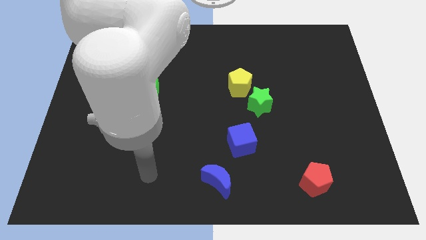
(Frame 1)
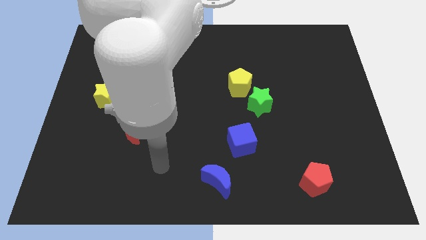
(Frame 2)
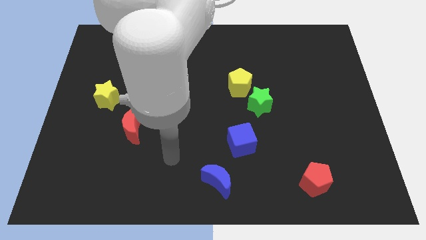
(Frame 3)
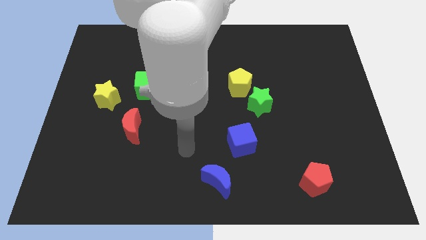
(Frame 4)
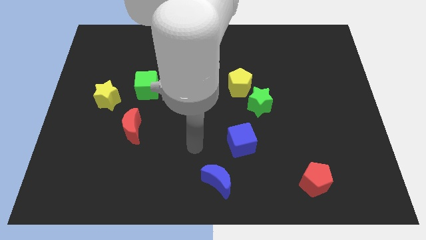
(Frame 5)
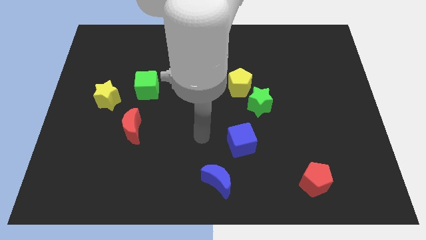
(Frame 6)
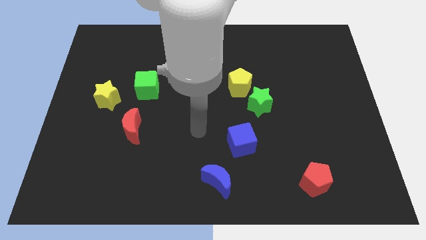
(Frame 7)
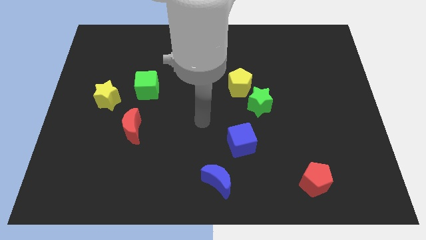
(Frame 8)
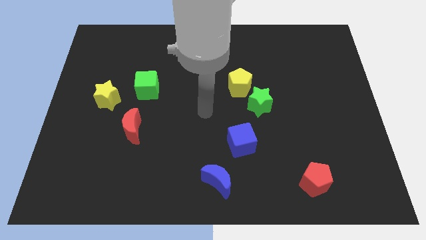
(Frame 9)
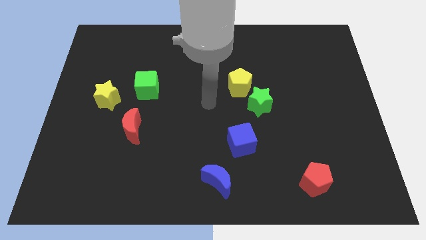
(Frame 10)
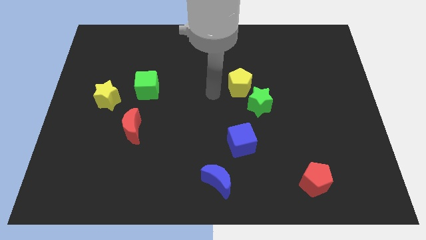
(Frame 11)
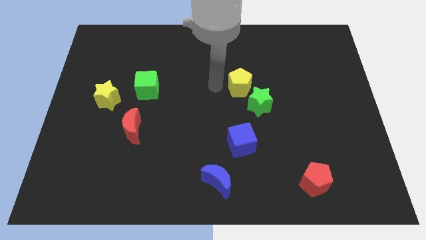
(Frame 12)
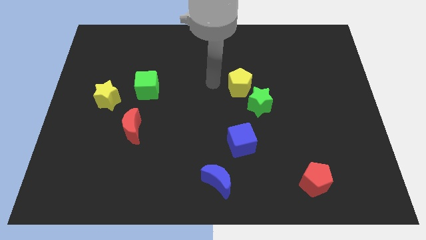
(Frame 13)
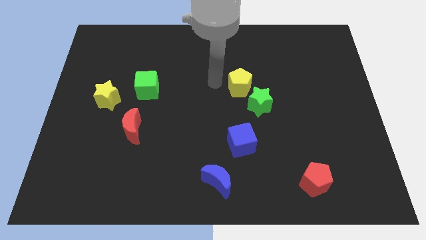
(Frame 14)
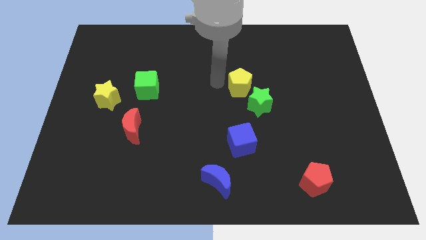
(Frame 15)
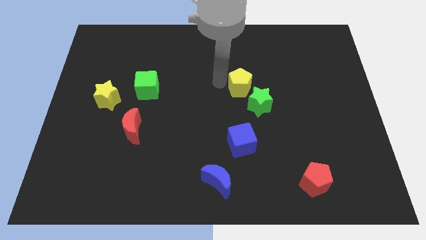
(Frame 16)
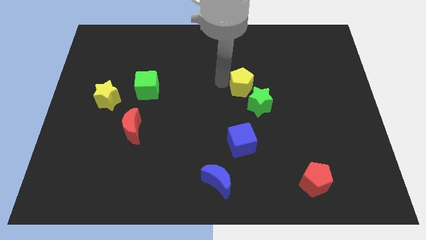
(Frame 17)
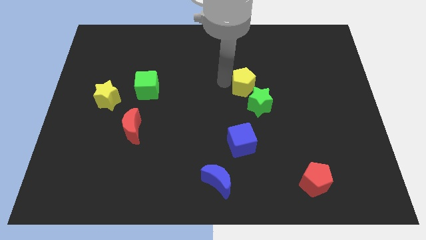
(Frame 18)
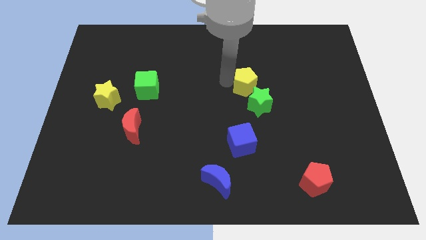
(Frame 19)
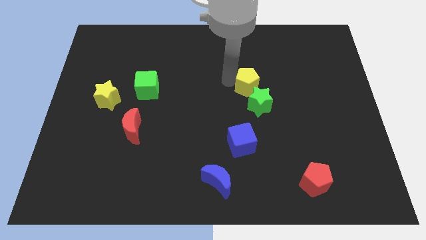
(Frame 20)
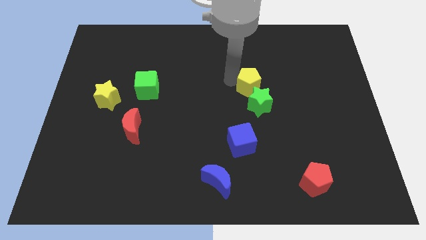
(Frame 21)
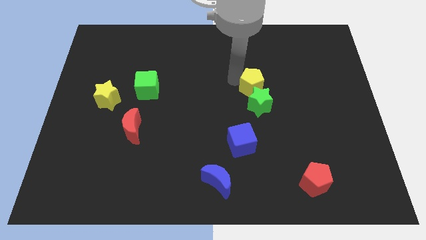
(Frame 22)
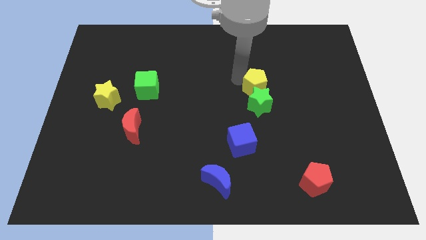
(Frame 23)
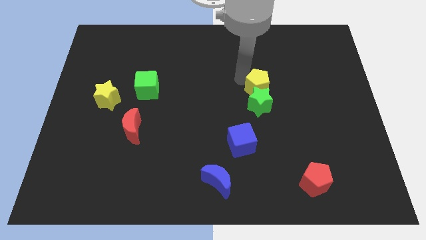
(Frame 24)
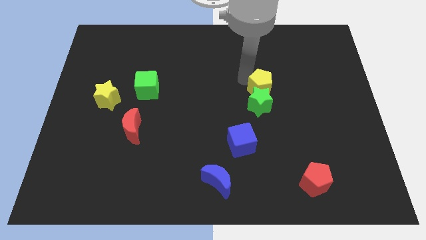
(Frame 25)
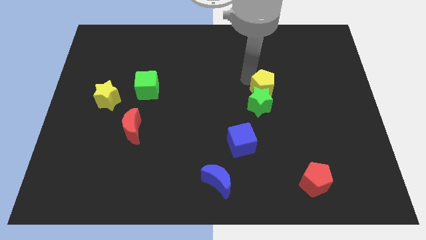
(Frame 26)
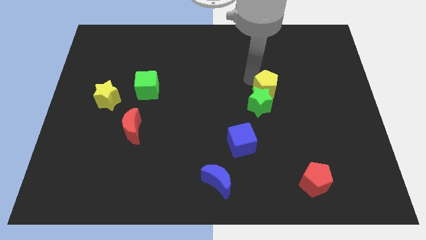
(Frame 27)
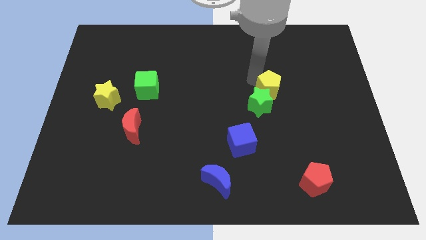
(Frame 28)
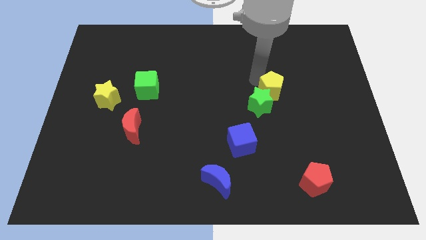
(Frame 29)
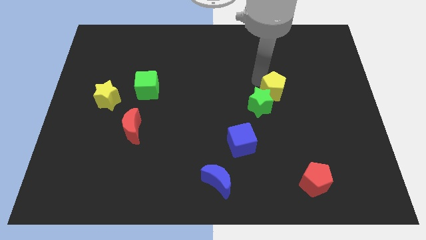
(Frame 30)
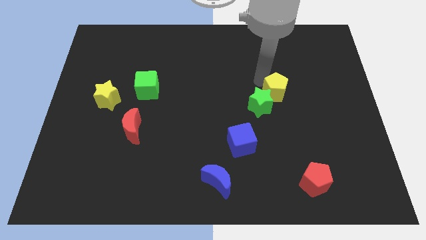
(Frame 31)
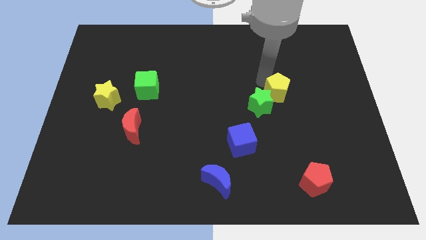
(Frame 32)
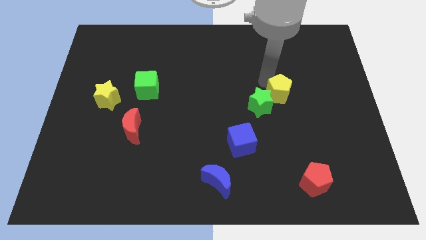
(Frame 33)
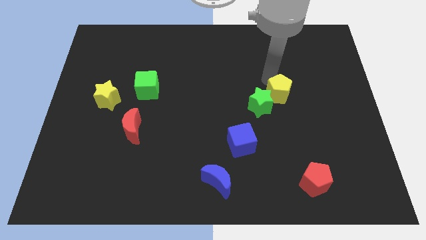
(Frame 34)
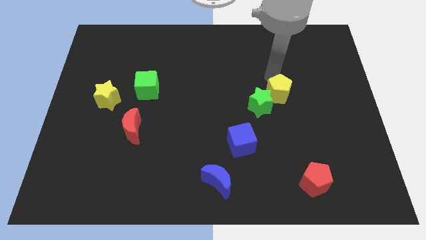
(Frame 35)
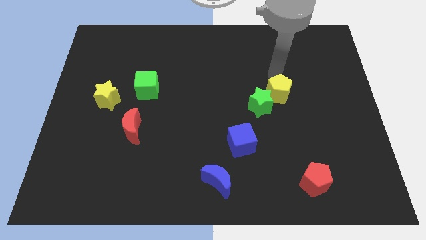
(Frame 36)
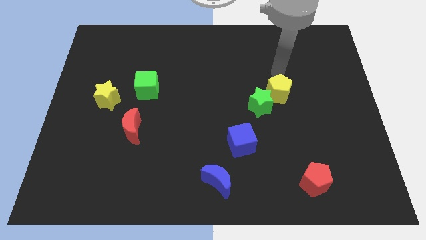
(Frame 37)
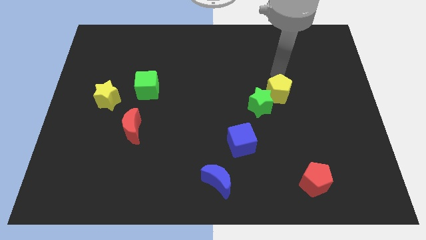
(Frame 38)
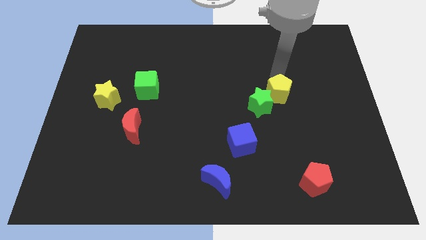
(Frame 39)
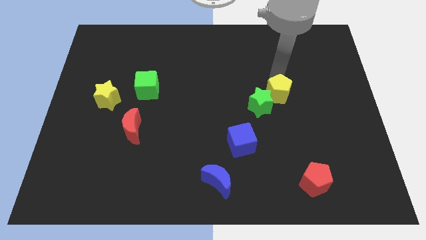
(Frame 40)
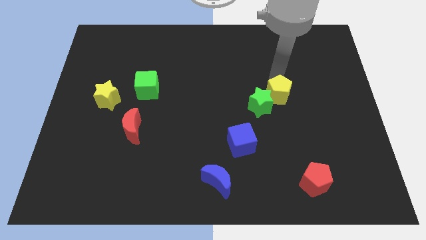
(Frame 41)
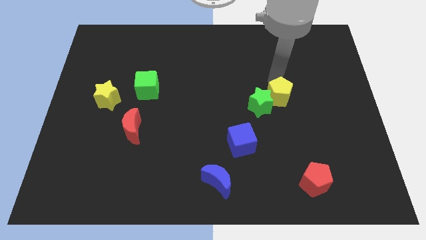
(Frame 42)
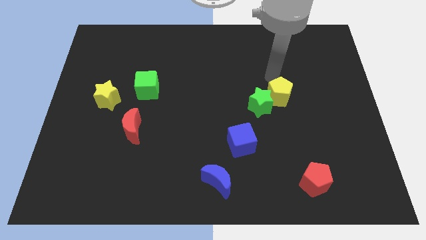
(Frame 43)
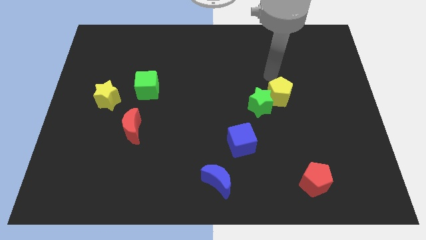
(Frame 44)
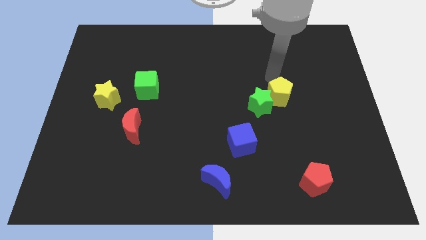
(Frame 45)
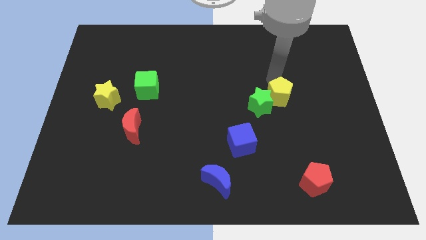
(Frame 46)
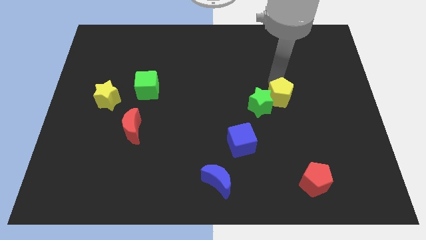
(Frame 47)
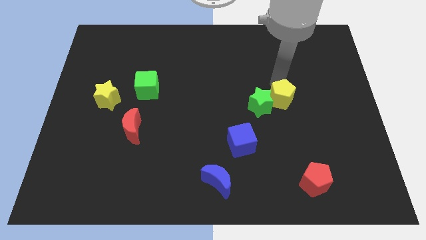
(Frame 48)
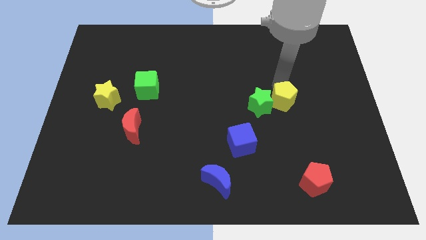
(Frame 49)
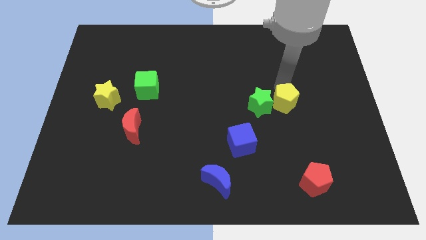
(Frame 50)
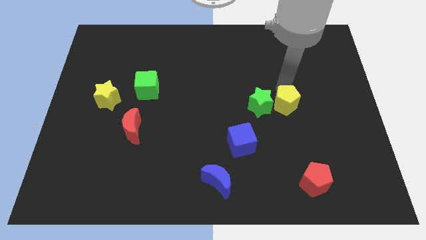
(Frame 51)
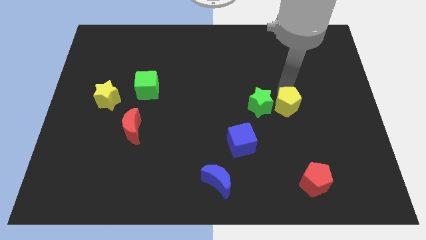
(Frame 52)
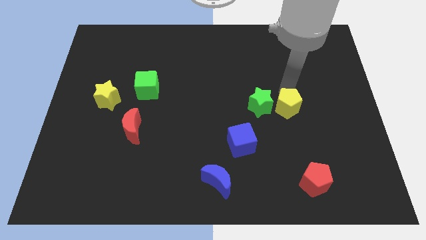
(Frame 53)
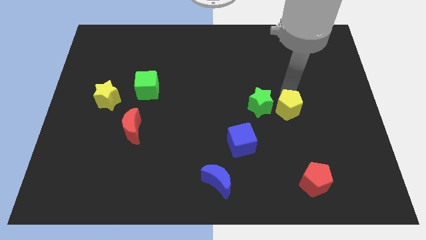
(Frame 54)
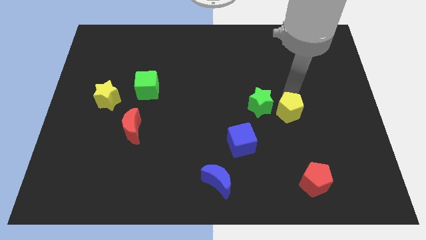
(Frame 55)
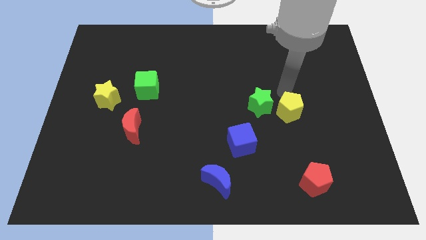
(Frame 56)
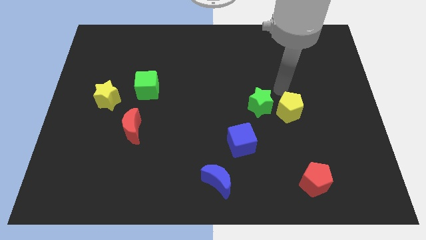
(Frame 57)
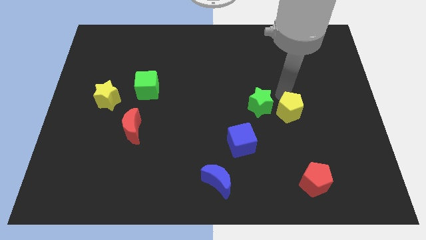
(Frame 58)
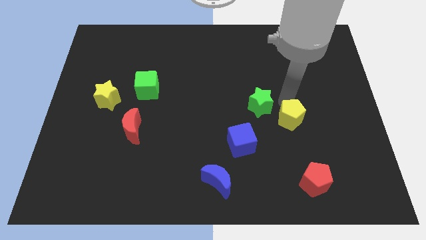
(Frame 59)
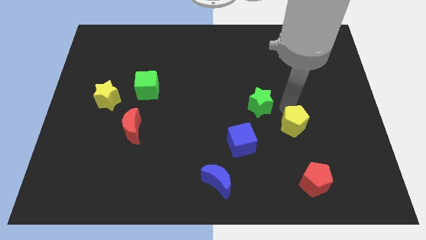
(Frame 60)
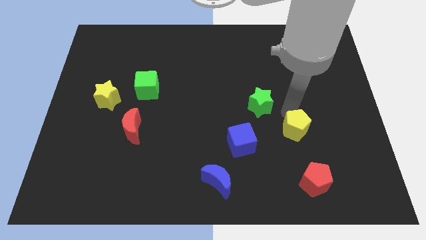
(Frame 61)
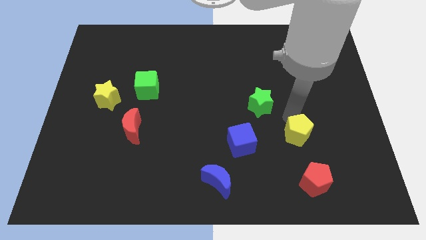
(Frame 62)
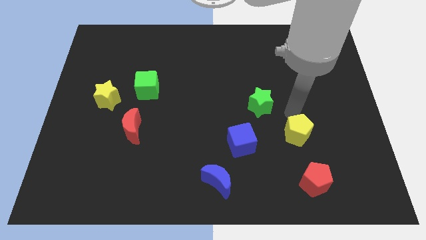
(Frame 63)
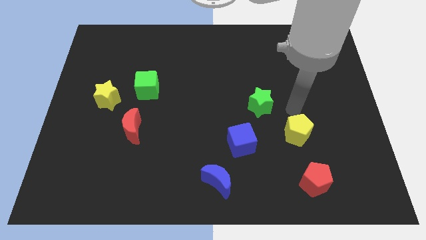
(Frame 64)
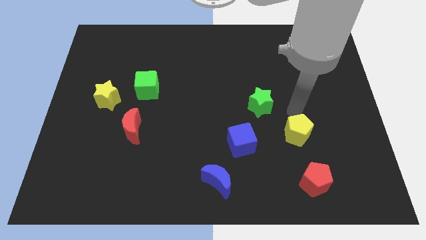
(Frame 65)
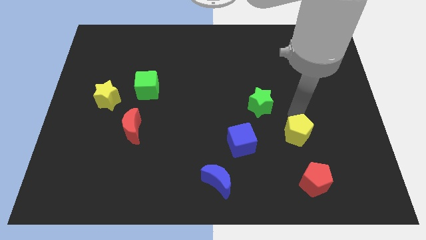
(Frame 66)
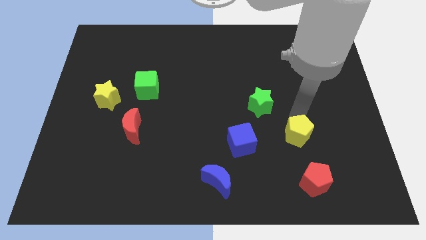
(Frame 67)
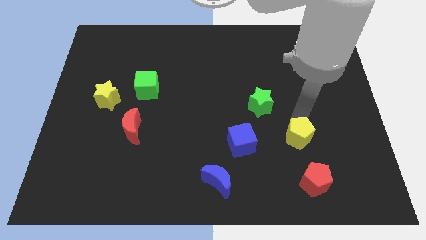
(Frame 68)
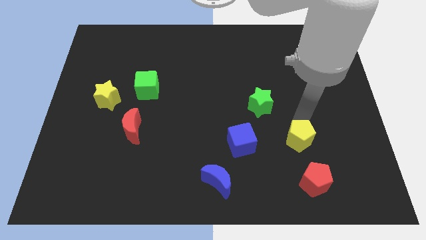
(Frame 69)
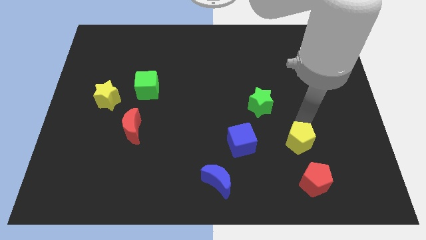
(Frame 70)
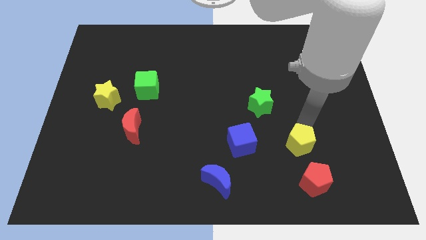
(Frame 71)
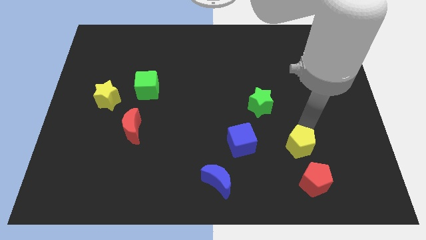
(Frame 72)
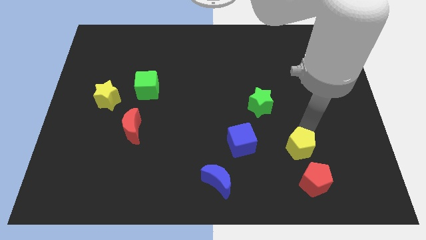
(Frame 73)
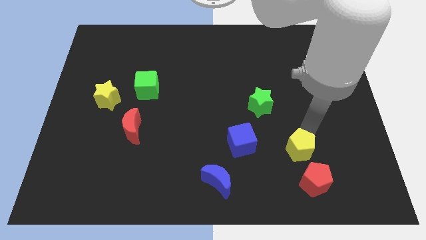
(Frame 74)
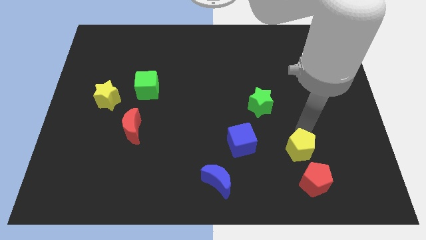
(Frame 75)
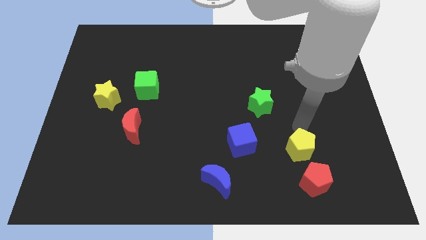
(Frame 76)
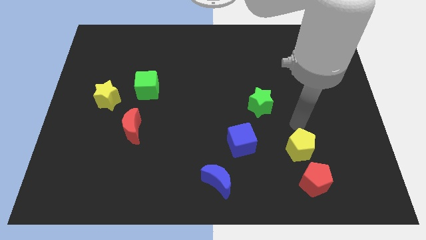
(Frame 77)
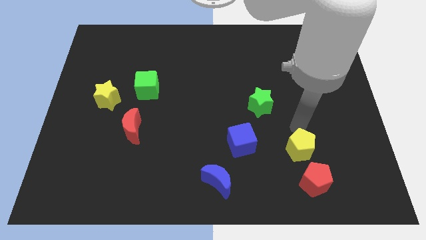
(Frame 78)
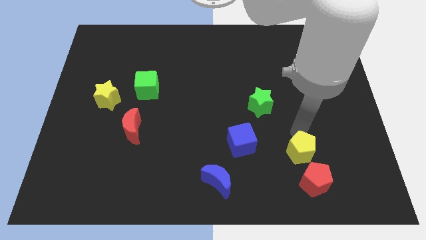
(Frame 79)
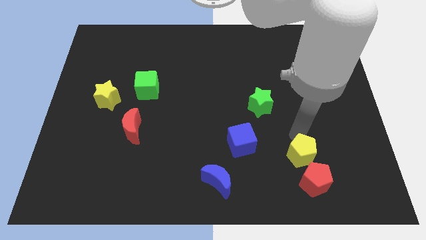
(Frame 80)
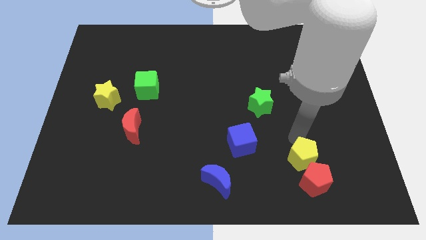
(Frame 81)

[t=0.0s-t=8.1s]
put the yellow pentagon next to the red pentagon

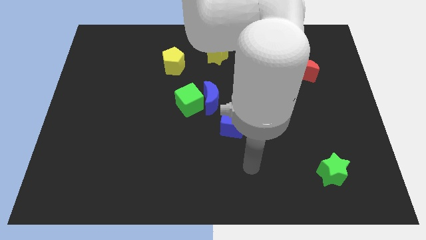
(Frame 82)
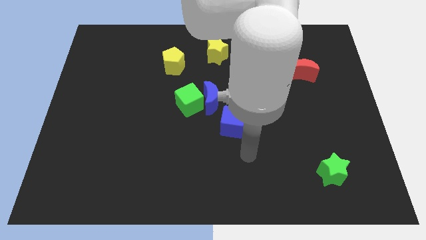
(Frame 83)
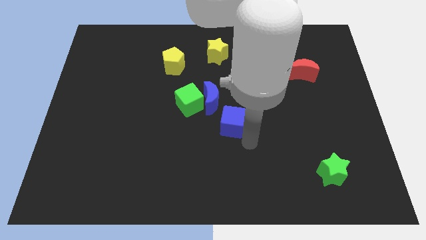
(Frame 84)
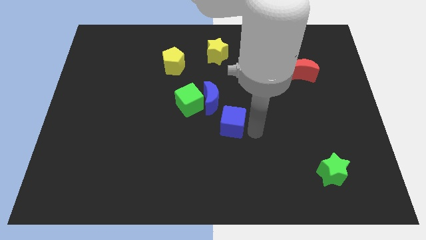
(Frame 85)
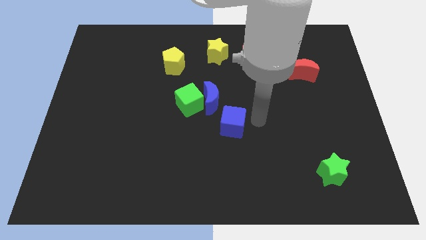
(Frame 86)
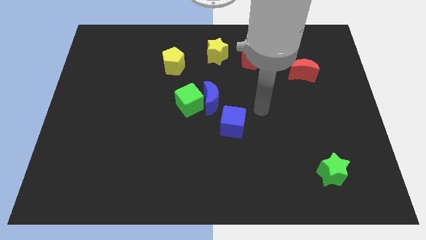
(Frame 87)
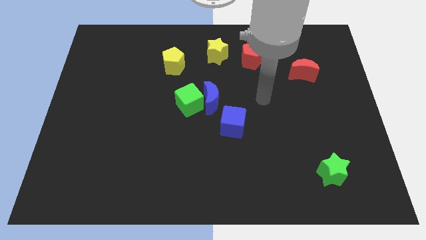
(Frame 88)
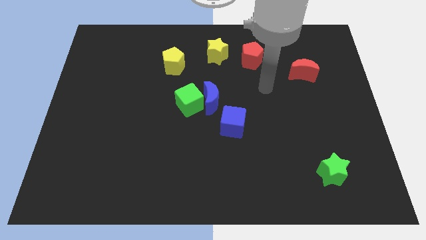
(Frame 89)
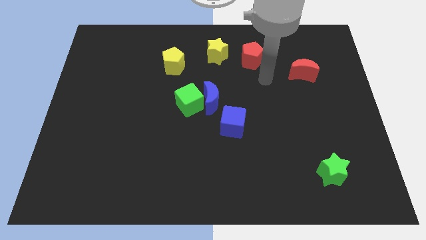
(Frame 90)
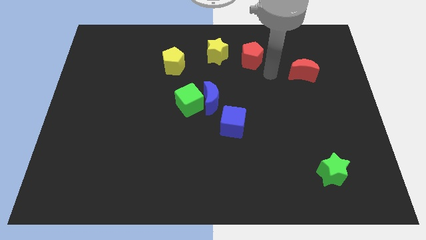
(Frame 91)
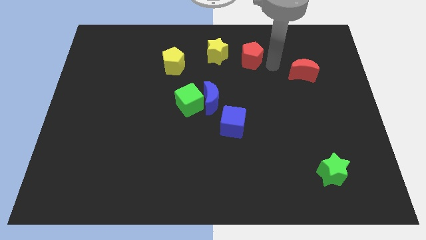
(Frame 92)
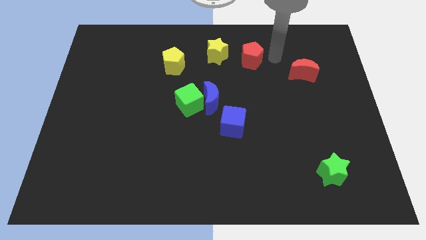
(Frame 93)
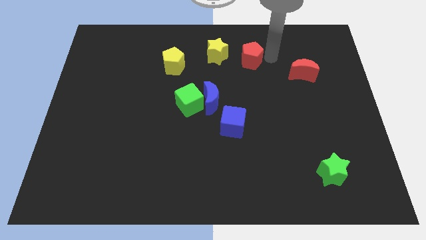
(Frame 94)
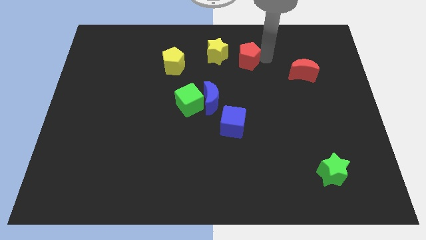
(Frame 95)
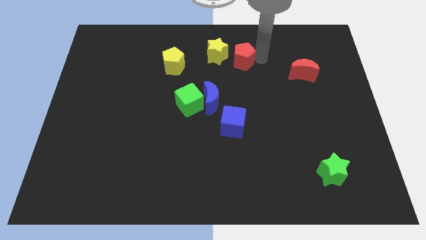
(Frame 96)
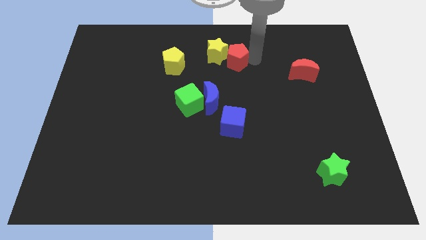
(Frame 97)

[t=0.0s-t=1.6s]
move the red pentagon next to the yellow star
